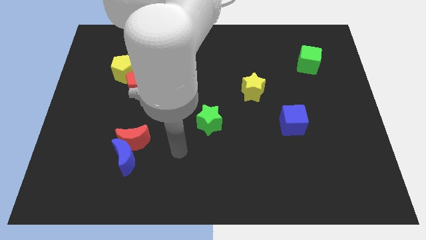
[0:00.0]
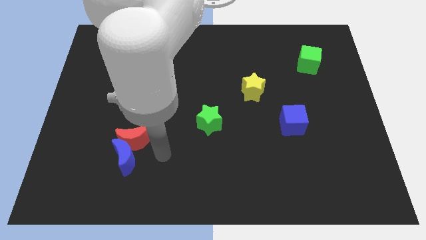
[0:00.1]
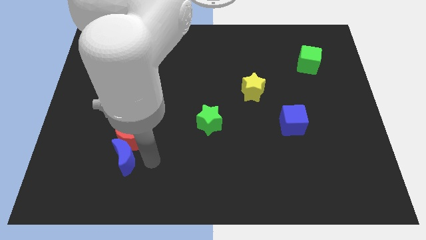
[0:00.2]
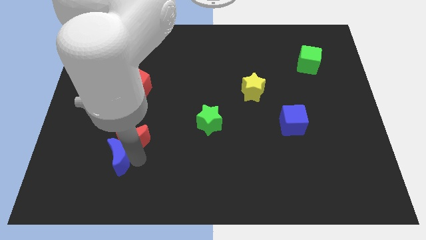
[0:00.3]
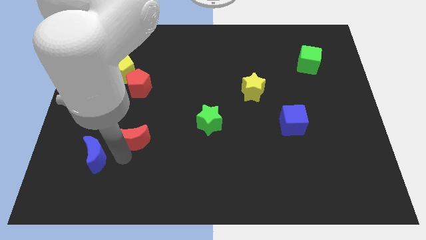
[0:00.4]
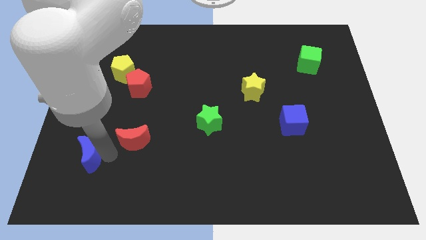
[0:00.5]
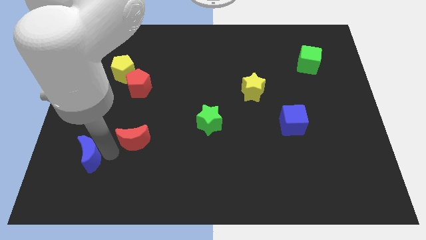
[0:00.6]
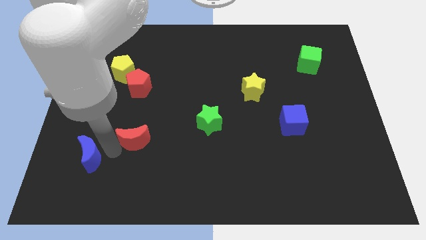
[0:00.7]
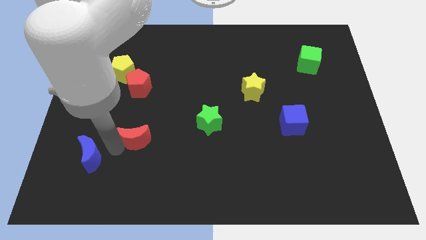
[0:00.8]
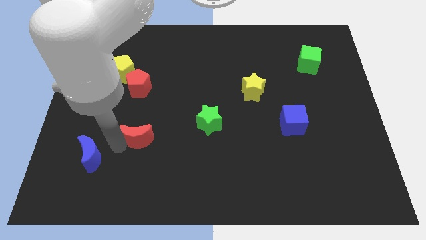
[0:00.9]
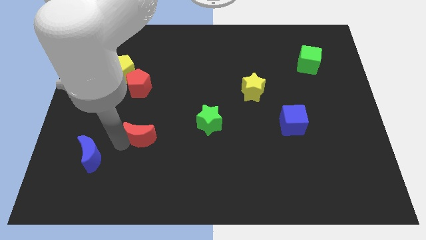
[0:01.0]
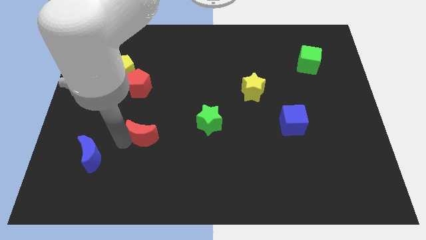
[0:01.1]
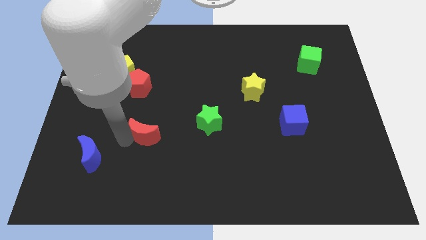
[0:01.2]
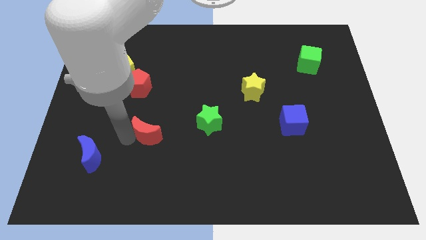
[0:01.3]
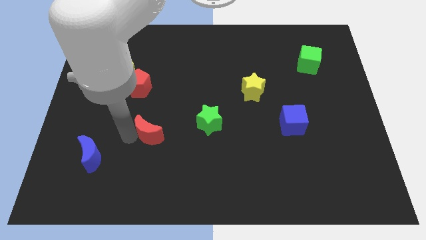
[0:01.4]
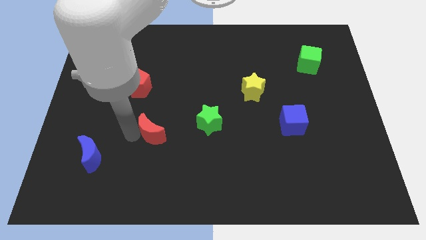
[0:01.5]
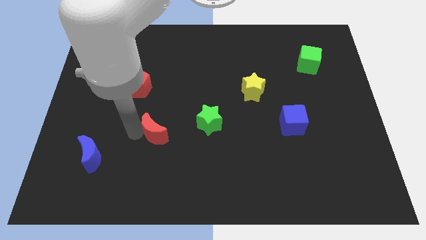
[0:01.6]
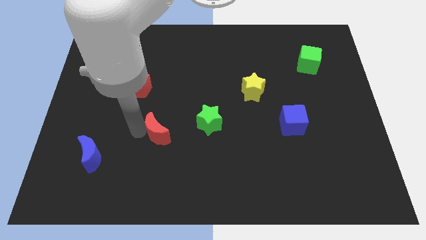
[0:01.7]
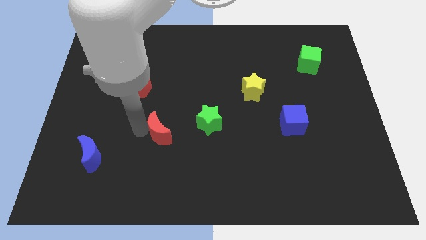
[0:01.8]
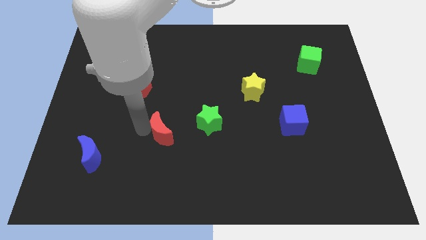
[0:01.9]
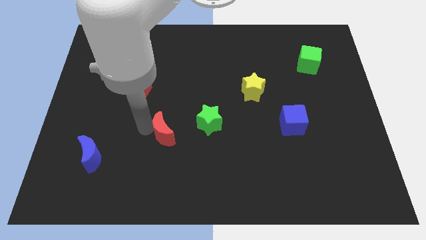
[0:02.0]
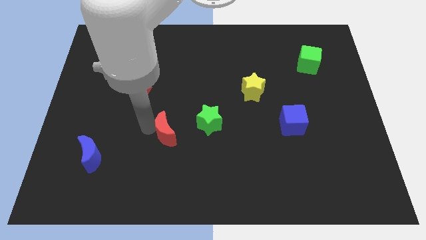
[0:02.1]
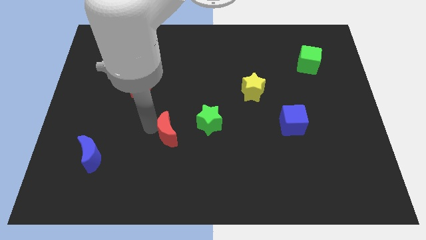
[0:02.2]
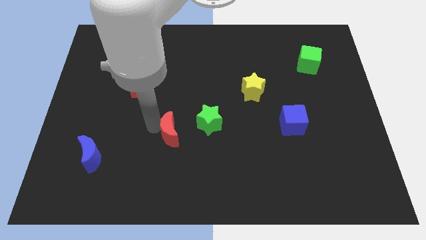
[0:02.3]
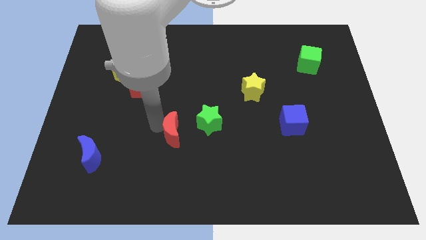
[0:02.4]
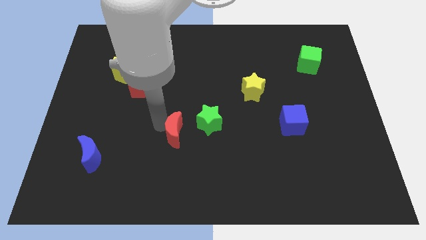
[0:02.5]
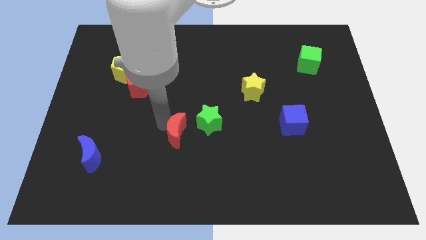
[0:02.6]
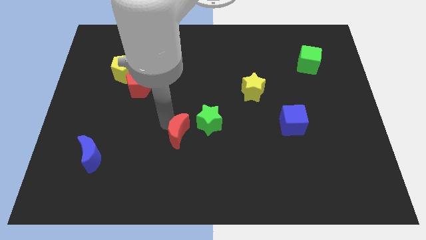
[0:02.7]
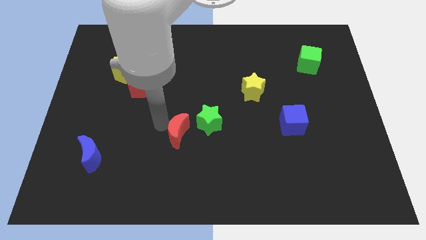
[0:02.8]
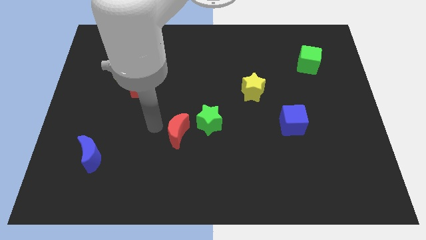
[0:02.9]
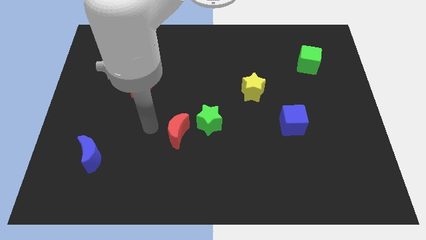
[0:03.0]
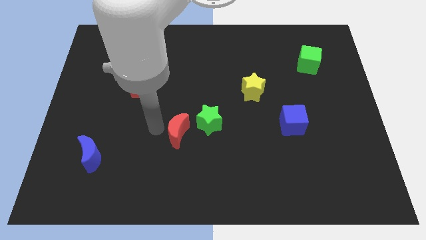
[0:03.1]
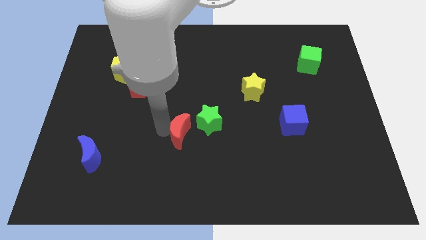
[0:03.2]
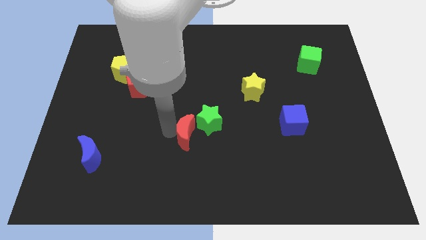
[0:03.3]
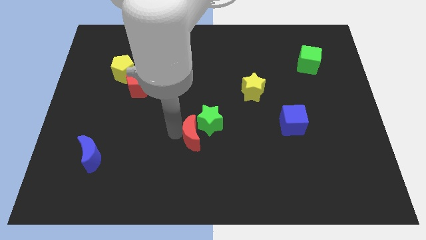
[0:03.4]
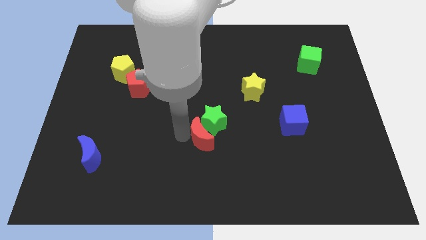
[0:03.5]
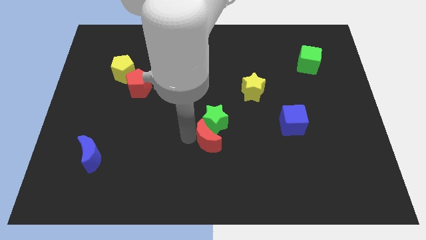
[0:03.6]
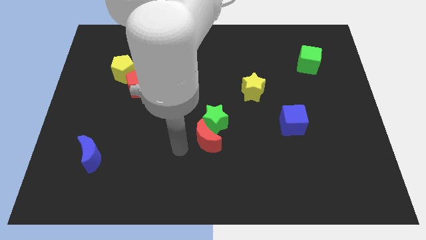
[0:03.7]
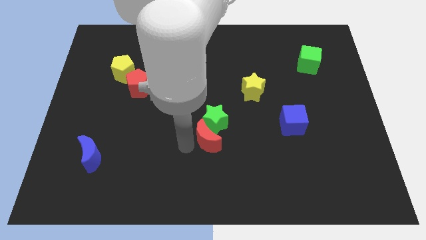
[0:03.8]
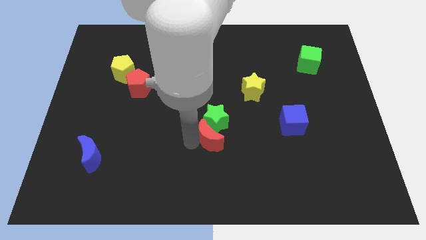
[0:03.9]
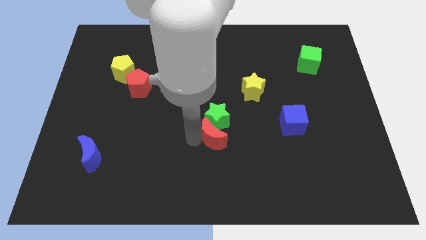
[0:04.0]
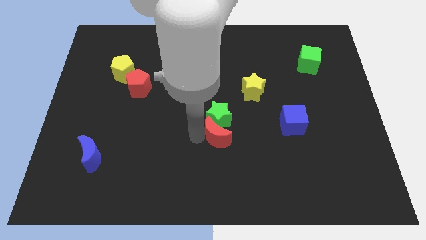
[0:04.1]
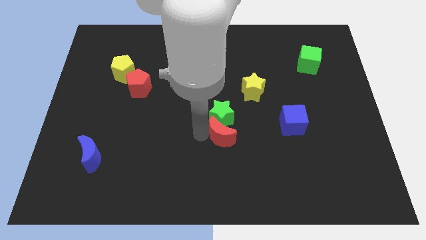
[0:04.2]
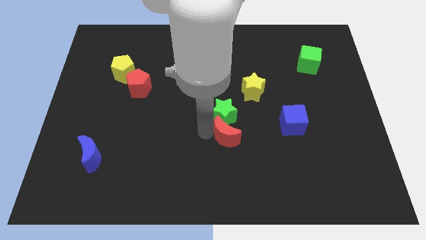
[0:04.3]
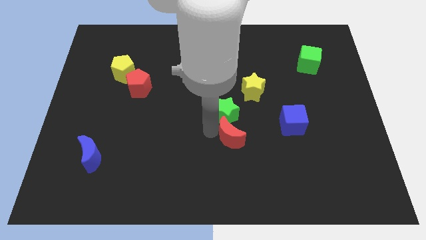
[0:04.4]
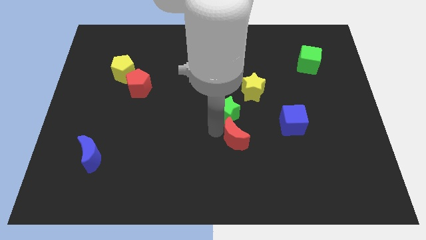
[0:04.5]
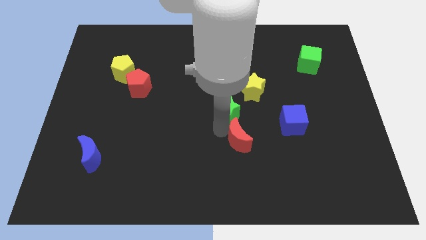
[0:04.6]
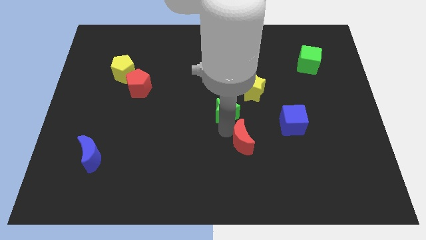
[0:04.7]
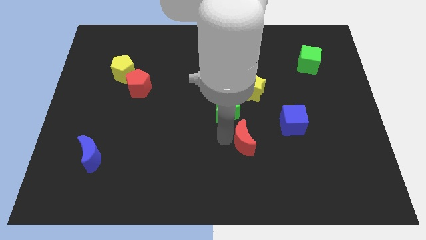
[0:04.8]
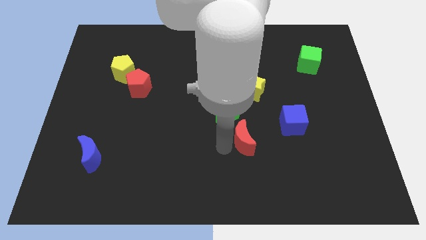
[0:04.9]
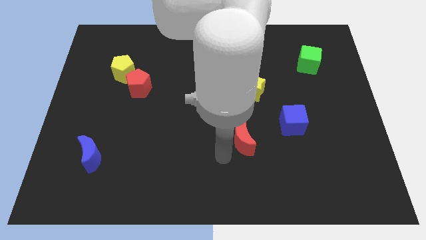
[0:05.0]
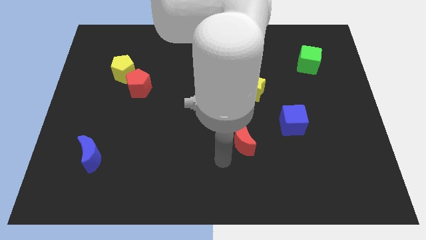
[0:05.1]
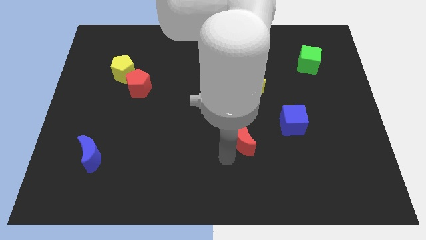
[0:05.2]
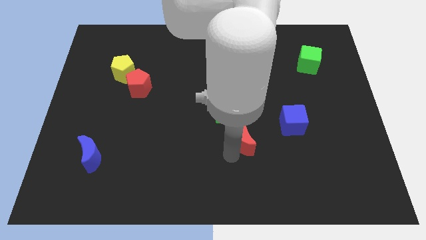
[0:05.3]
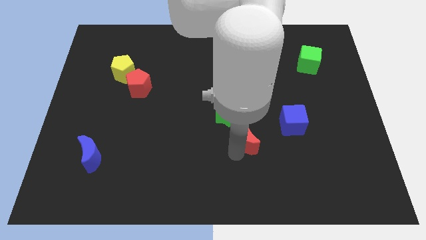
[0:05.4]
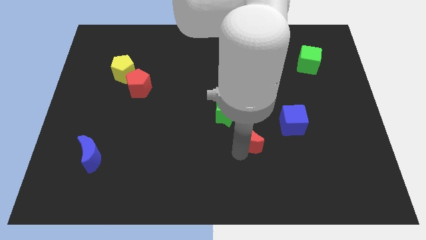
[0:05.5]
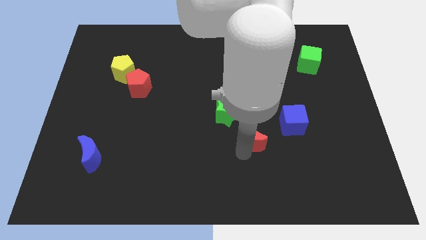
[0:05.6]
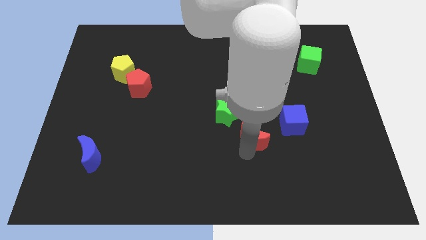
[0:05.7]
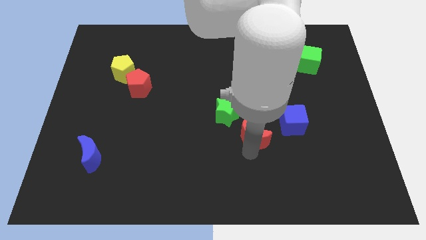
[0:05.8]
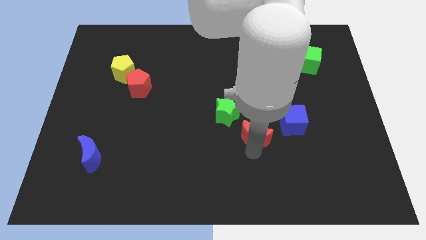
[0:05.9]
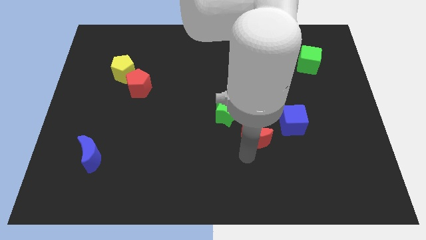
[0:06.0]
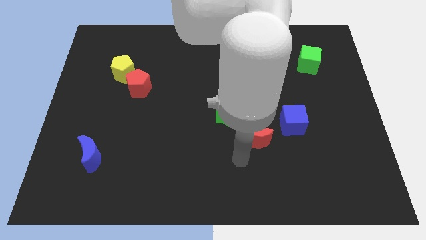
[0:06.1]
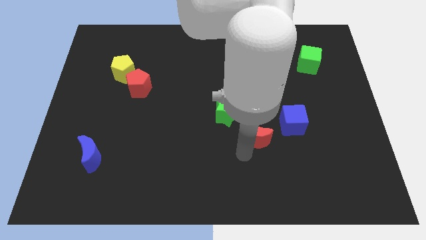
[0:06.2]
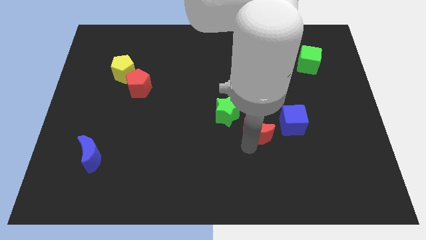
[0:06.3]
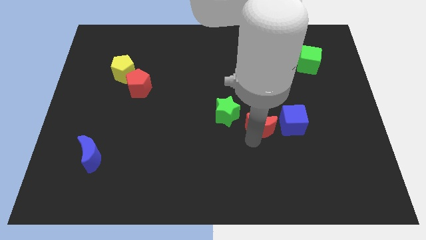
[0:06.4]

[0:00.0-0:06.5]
push the red moon to the right of the green star

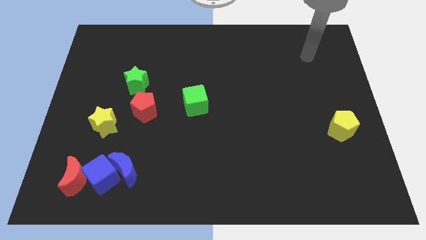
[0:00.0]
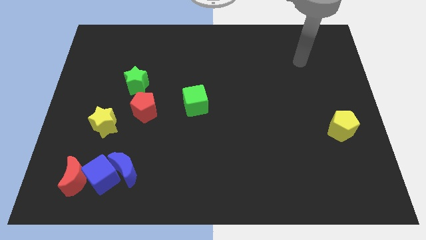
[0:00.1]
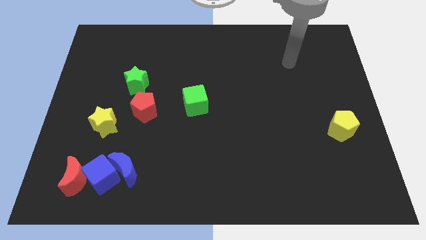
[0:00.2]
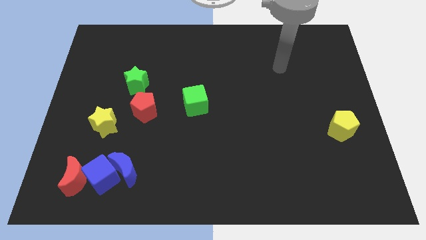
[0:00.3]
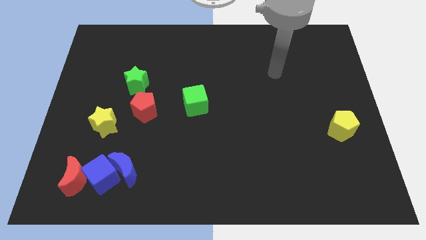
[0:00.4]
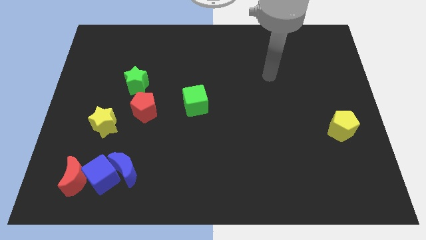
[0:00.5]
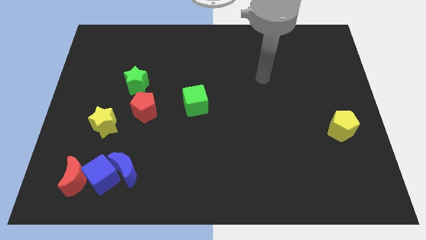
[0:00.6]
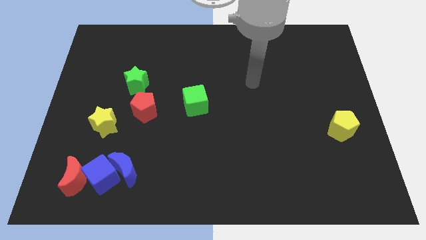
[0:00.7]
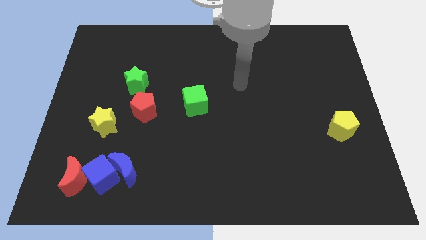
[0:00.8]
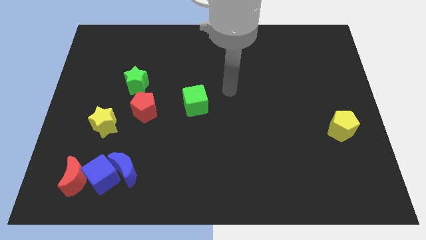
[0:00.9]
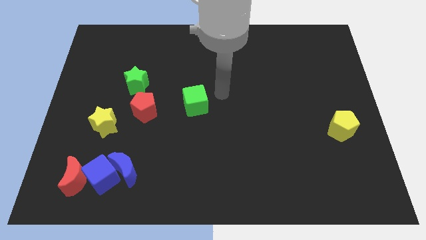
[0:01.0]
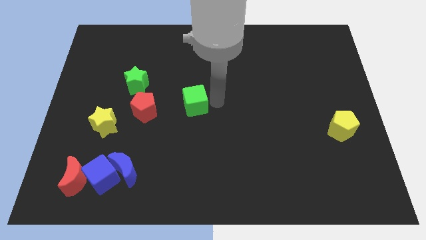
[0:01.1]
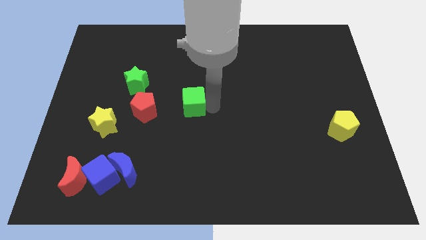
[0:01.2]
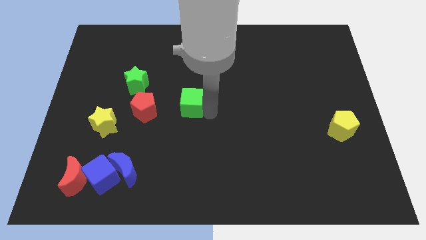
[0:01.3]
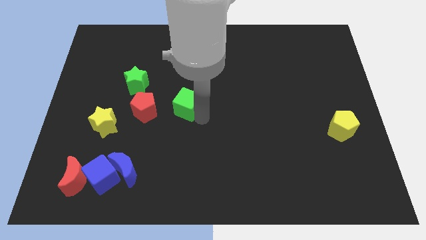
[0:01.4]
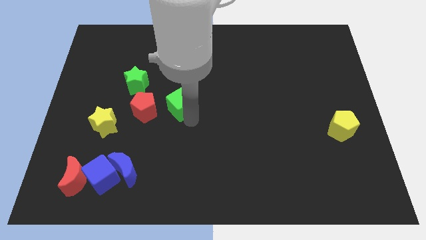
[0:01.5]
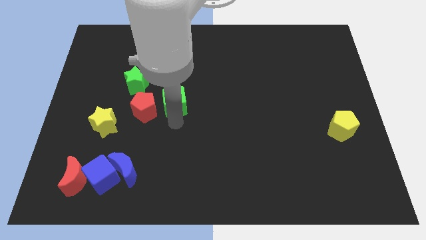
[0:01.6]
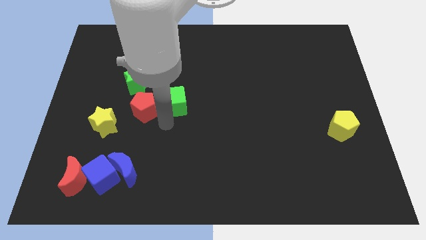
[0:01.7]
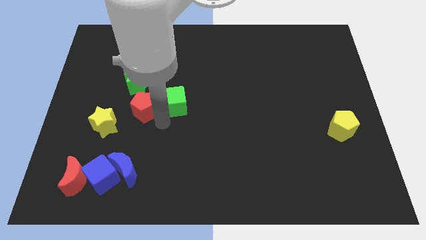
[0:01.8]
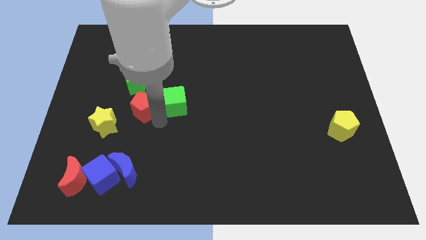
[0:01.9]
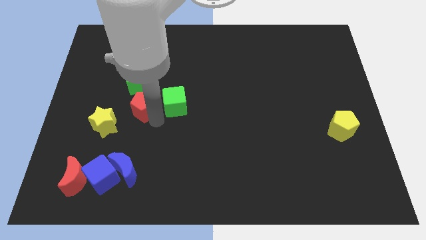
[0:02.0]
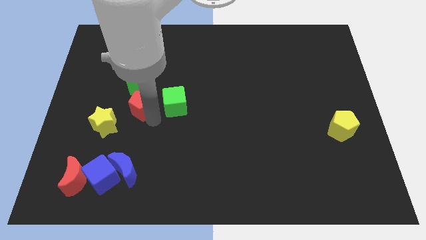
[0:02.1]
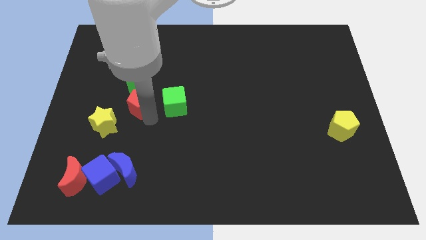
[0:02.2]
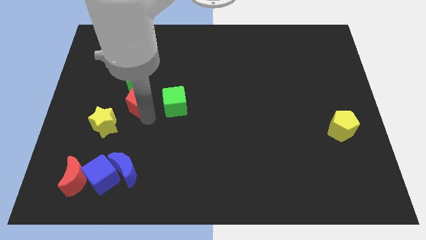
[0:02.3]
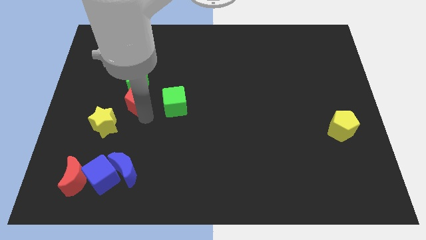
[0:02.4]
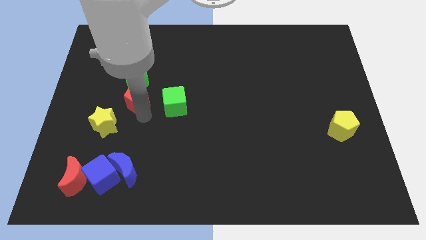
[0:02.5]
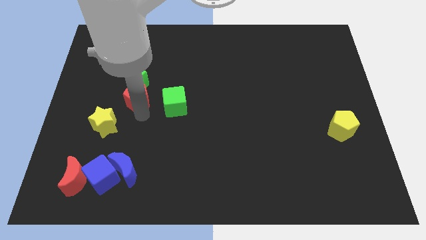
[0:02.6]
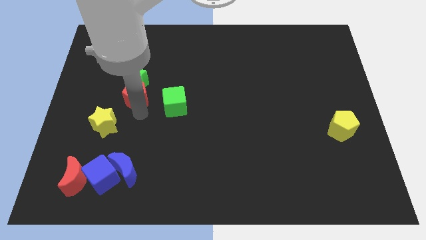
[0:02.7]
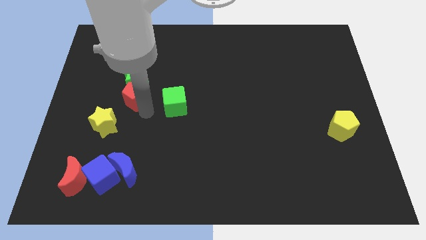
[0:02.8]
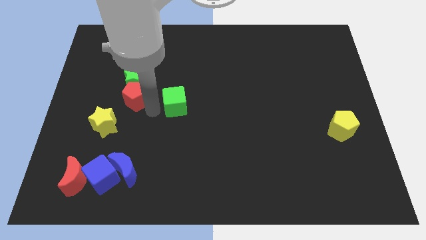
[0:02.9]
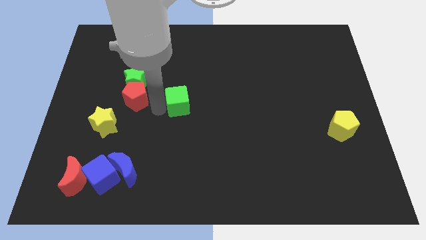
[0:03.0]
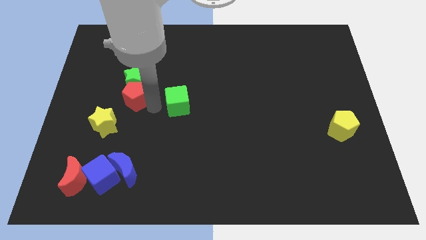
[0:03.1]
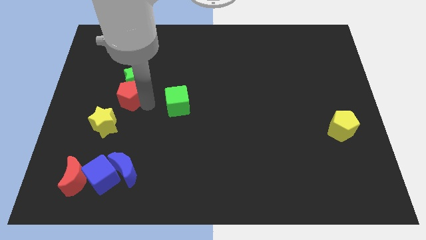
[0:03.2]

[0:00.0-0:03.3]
put the red pentagon above the yellow star
